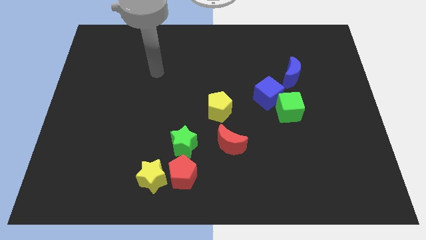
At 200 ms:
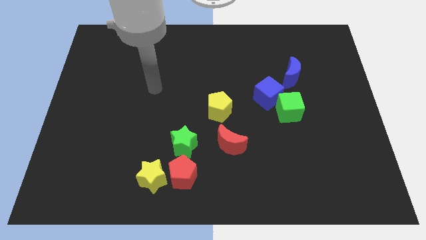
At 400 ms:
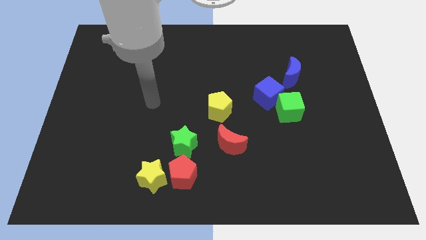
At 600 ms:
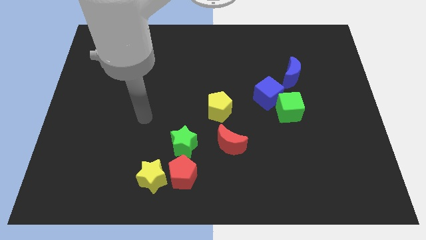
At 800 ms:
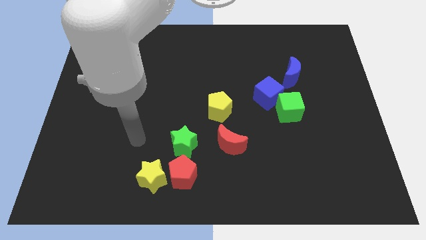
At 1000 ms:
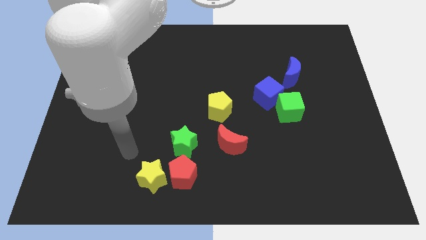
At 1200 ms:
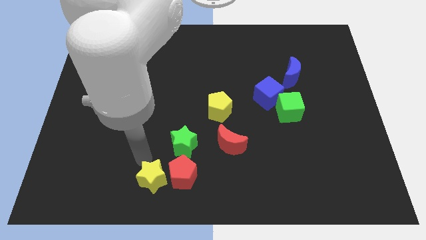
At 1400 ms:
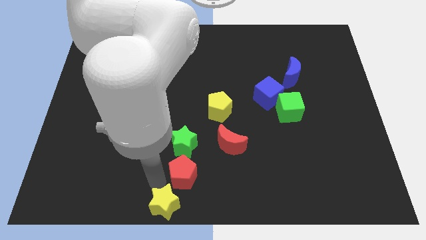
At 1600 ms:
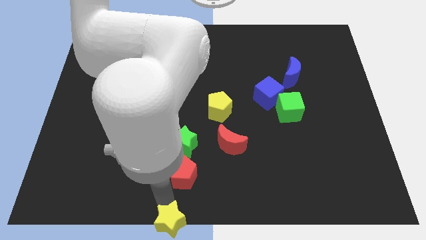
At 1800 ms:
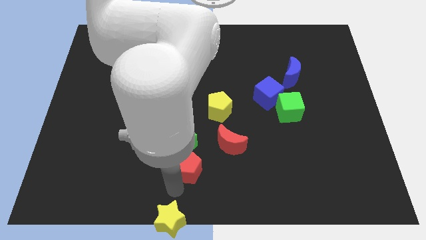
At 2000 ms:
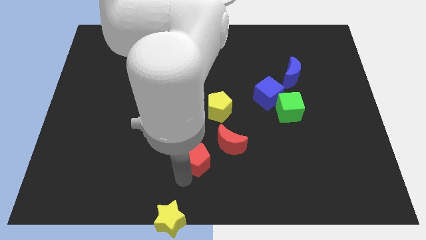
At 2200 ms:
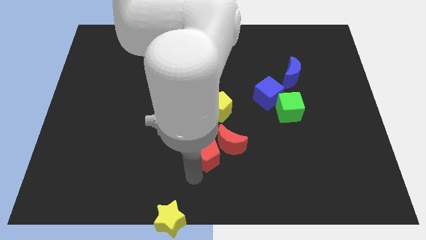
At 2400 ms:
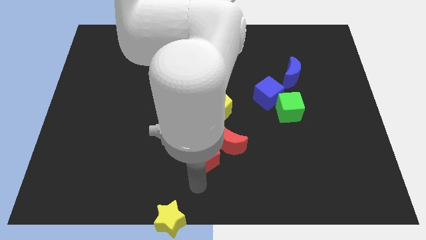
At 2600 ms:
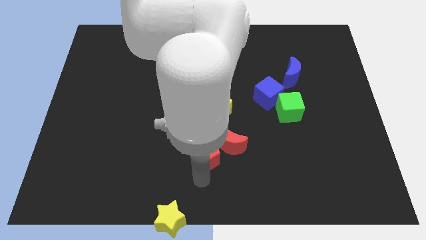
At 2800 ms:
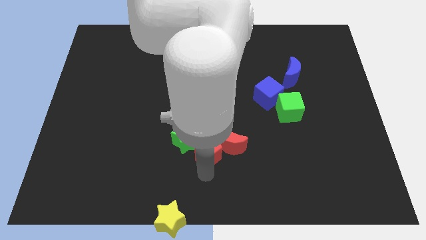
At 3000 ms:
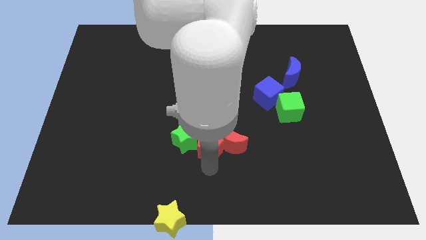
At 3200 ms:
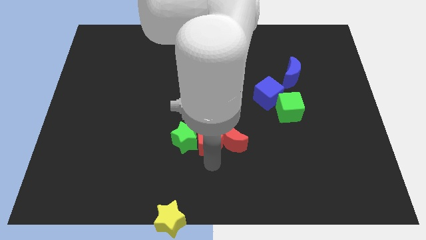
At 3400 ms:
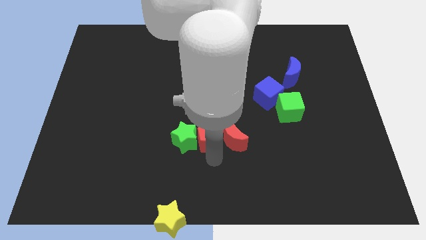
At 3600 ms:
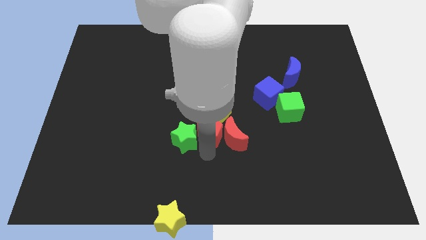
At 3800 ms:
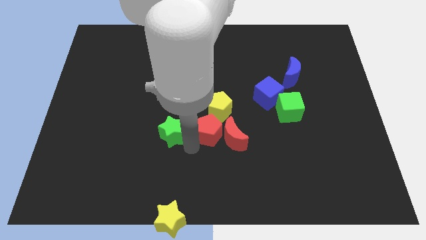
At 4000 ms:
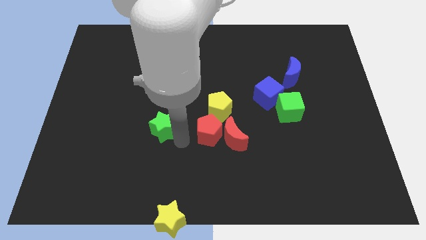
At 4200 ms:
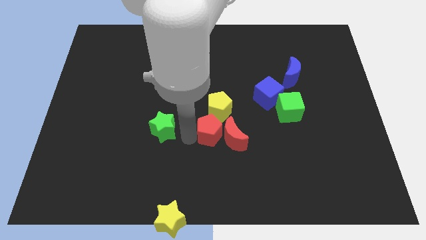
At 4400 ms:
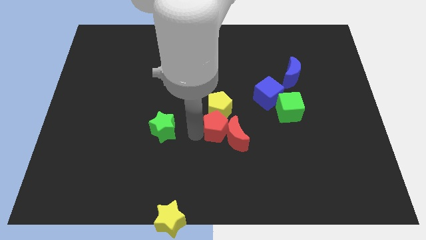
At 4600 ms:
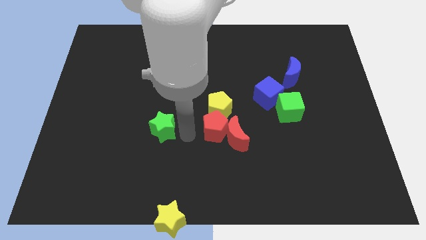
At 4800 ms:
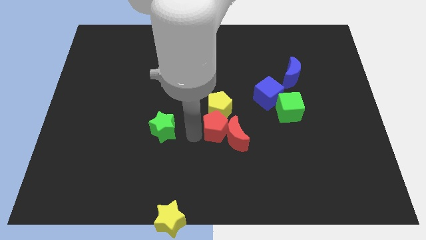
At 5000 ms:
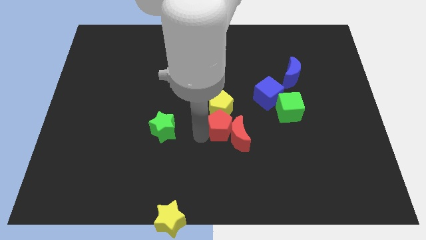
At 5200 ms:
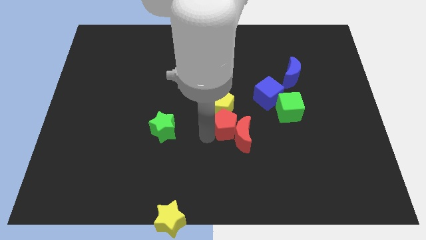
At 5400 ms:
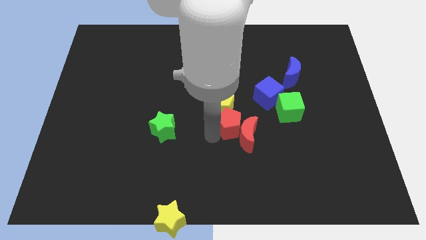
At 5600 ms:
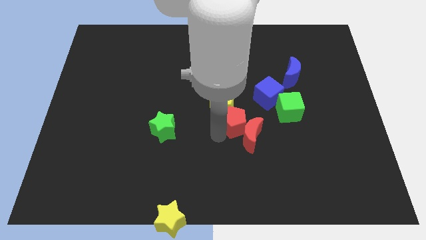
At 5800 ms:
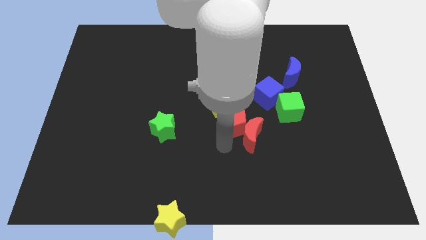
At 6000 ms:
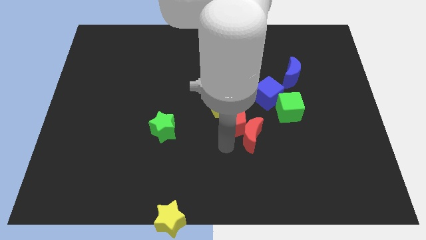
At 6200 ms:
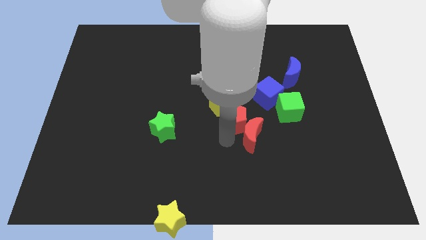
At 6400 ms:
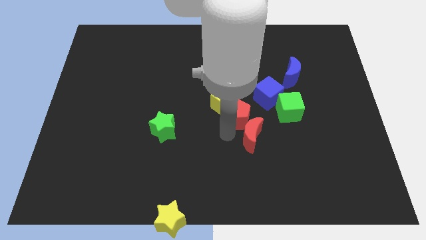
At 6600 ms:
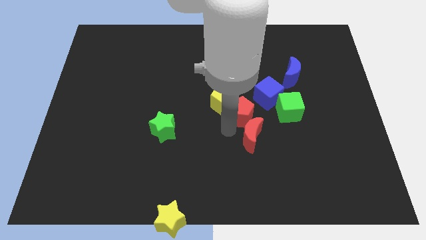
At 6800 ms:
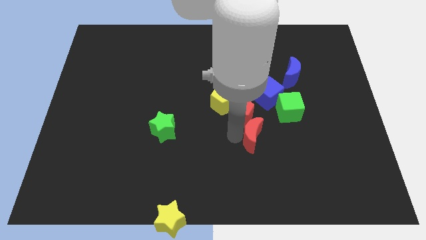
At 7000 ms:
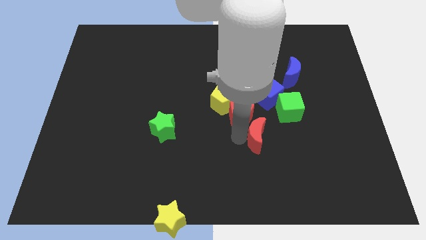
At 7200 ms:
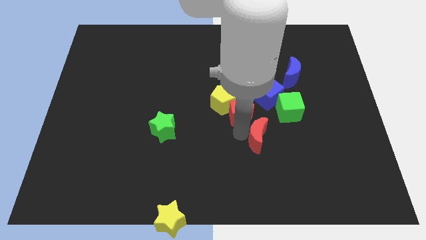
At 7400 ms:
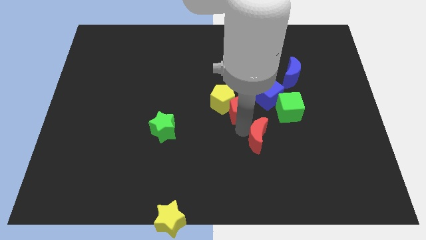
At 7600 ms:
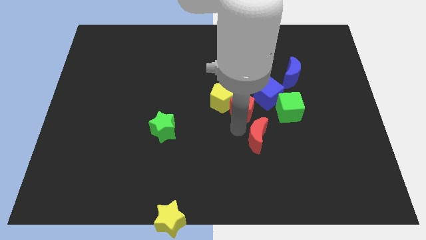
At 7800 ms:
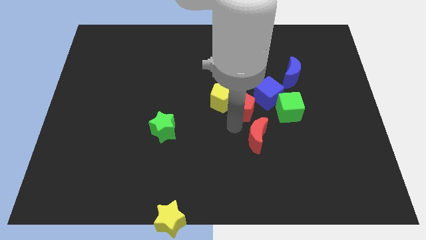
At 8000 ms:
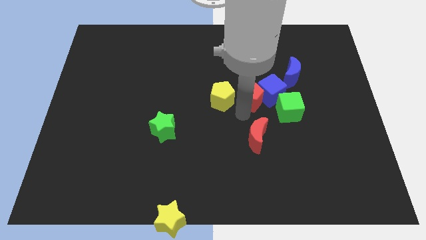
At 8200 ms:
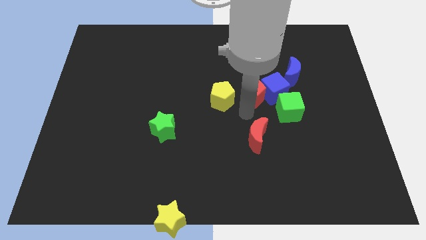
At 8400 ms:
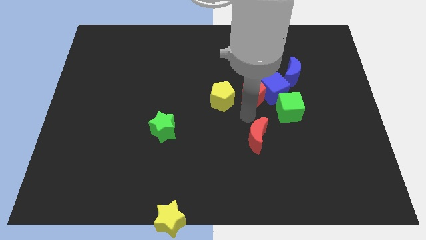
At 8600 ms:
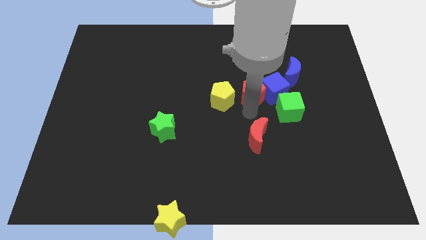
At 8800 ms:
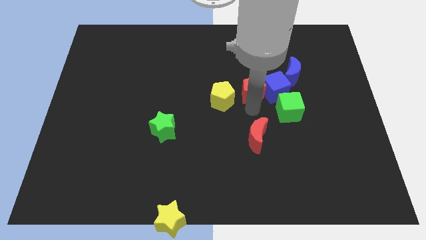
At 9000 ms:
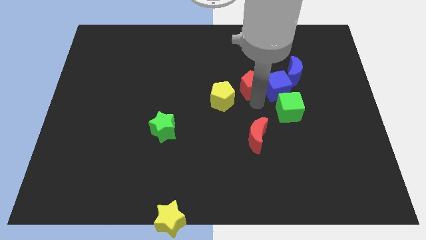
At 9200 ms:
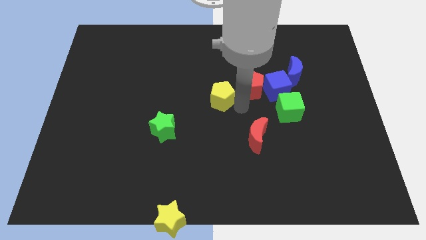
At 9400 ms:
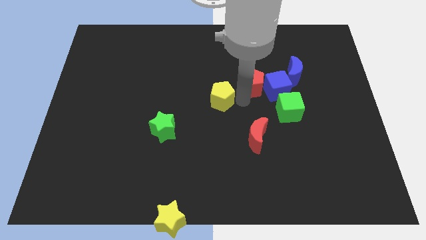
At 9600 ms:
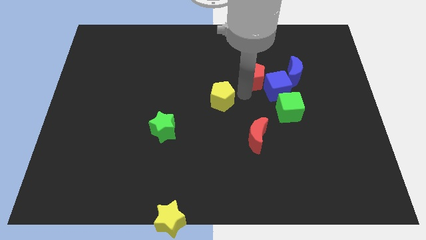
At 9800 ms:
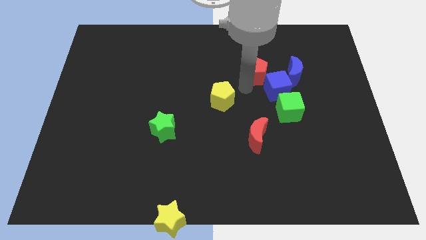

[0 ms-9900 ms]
put the red pentagon above the blue cube

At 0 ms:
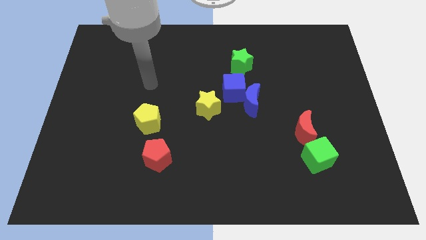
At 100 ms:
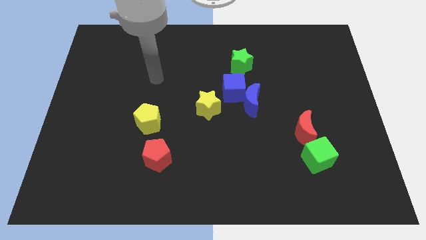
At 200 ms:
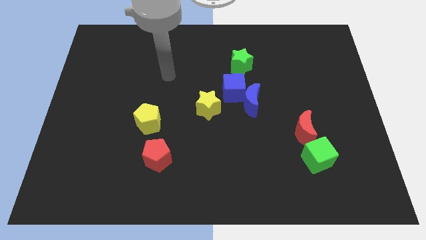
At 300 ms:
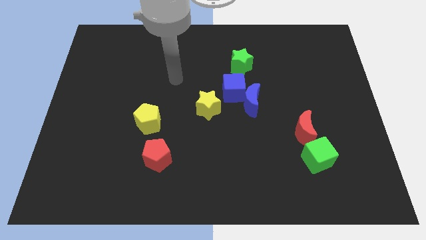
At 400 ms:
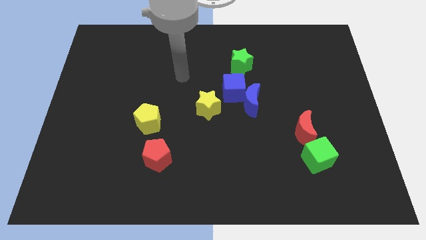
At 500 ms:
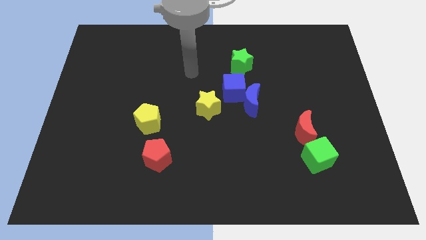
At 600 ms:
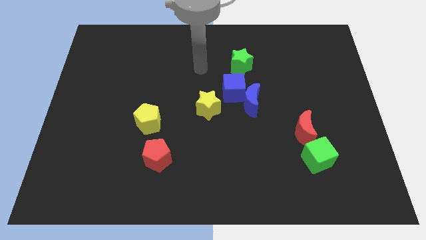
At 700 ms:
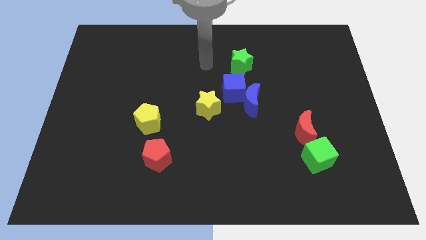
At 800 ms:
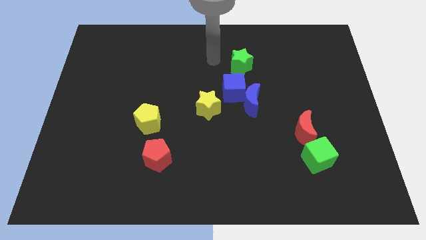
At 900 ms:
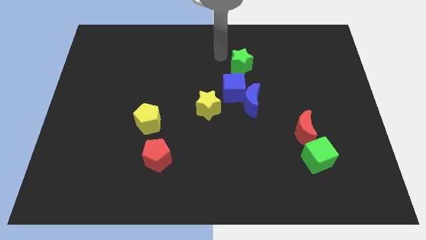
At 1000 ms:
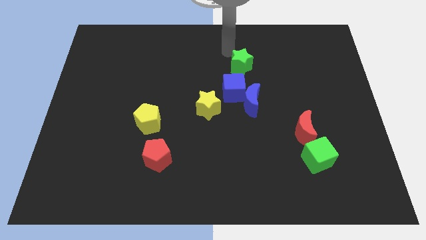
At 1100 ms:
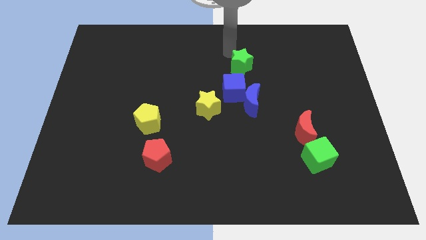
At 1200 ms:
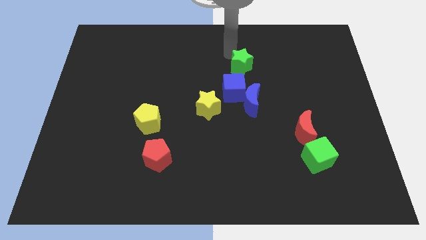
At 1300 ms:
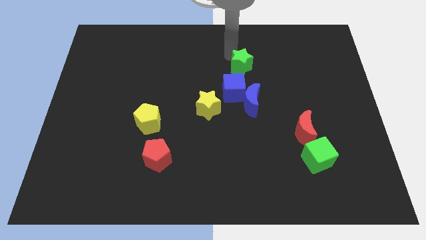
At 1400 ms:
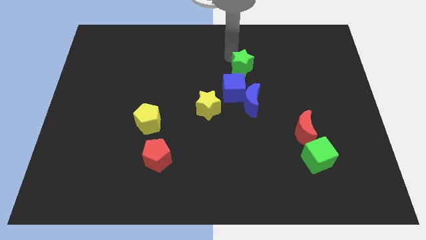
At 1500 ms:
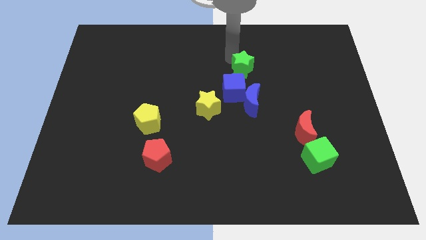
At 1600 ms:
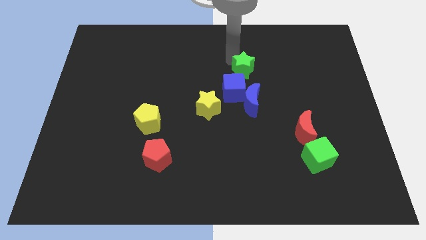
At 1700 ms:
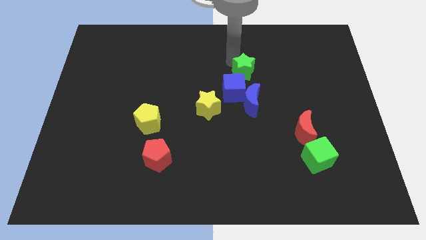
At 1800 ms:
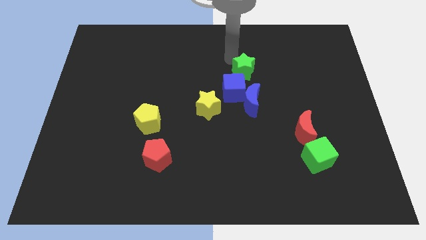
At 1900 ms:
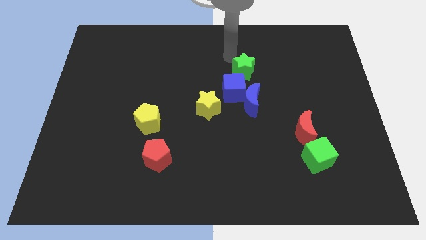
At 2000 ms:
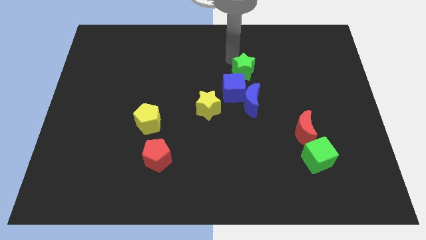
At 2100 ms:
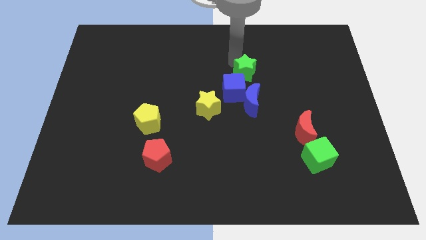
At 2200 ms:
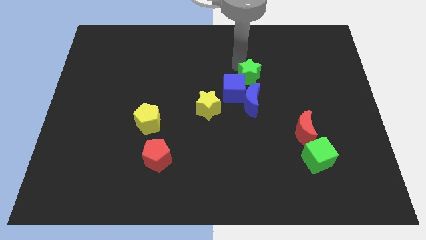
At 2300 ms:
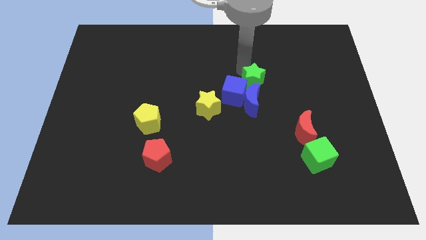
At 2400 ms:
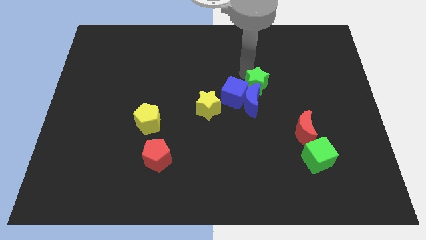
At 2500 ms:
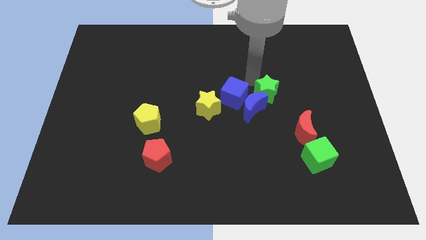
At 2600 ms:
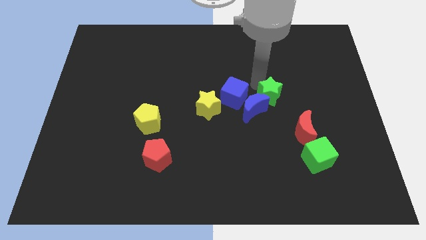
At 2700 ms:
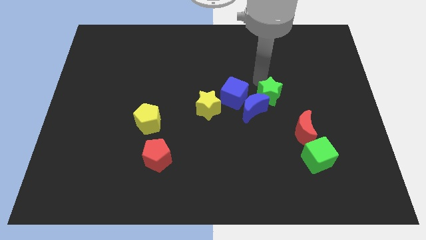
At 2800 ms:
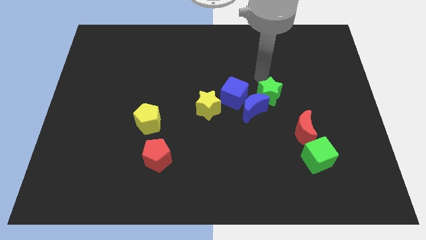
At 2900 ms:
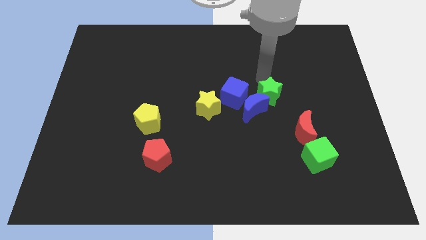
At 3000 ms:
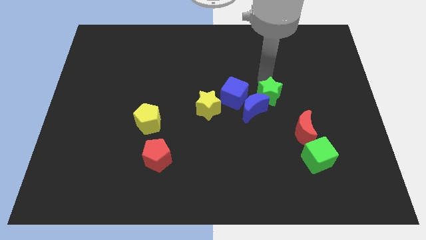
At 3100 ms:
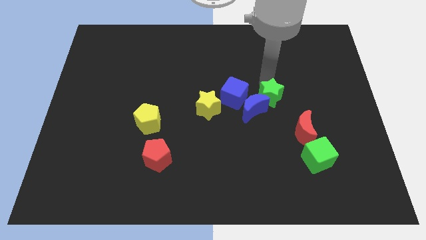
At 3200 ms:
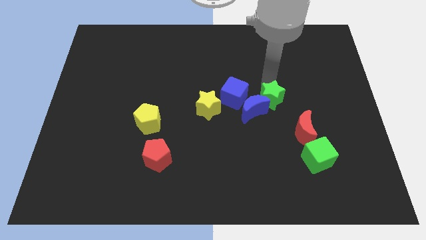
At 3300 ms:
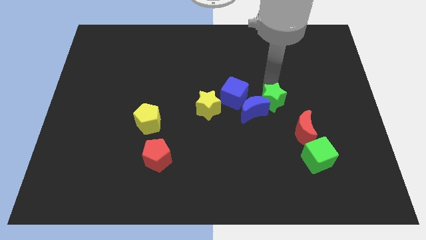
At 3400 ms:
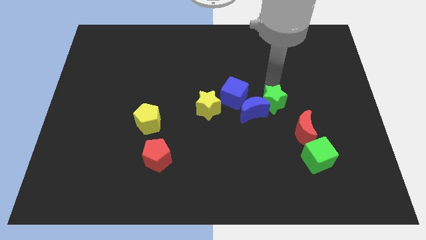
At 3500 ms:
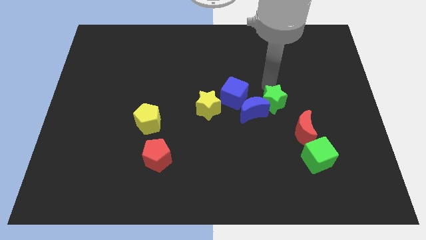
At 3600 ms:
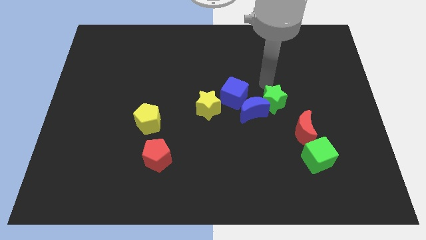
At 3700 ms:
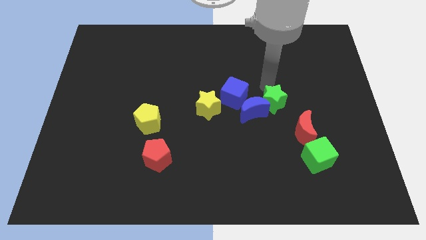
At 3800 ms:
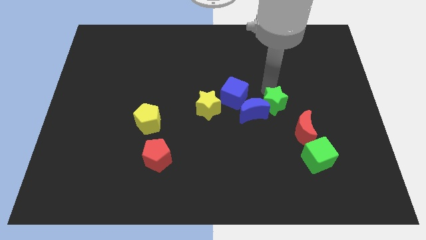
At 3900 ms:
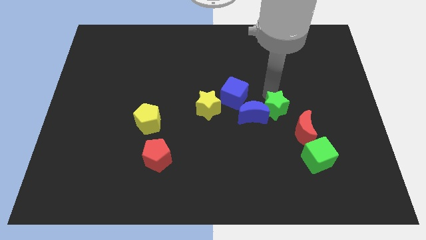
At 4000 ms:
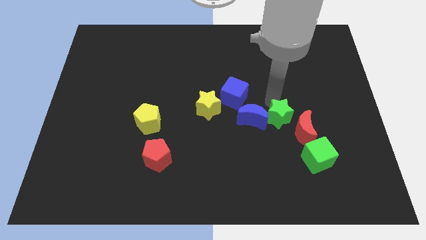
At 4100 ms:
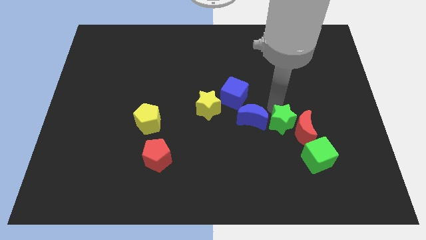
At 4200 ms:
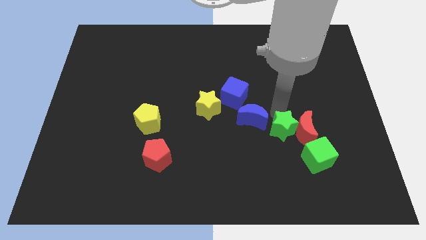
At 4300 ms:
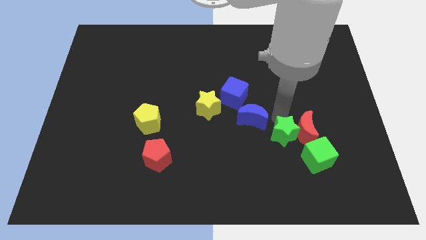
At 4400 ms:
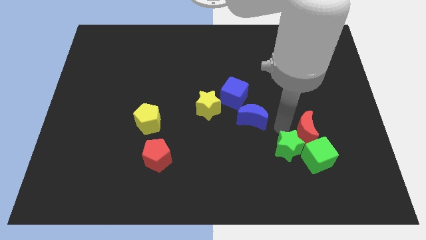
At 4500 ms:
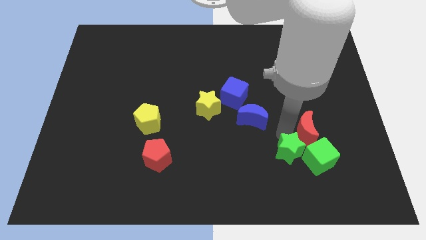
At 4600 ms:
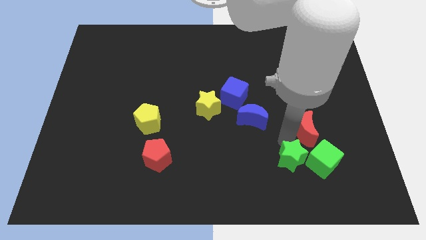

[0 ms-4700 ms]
put the green star to the bottom left of the green cube
